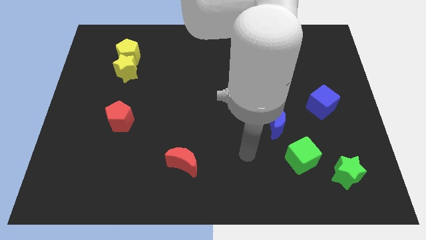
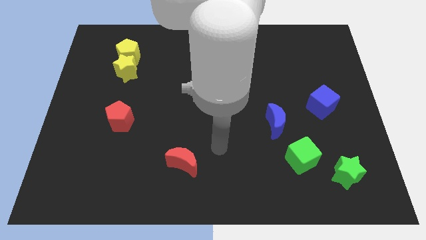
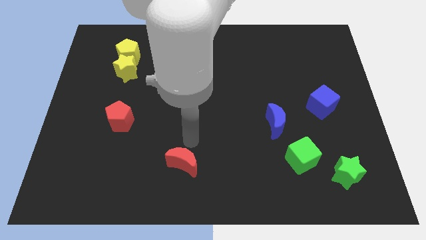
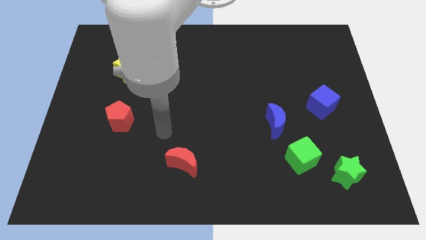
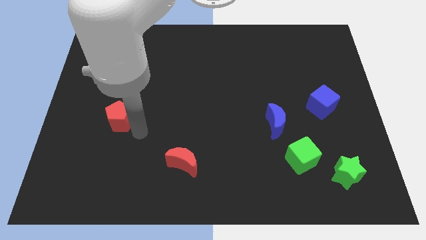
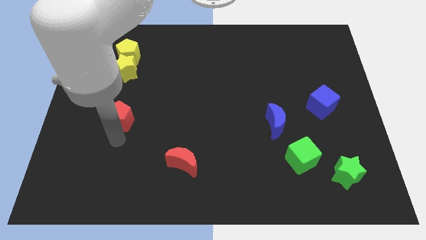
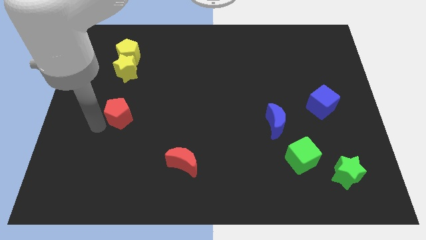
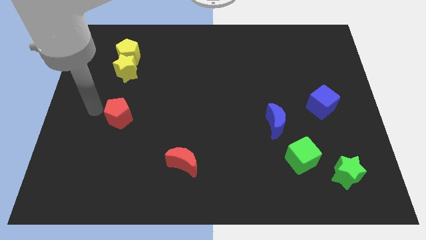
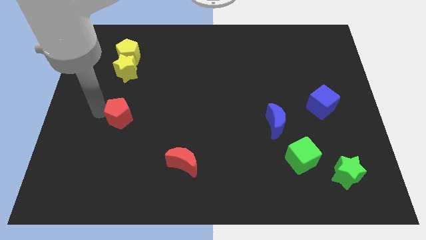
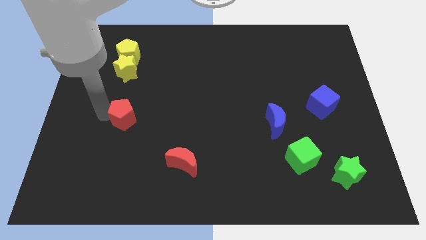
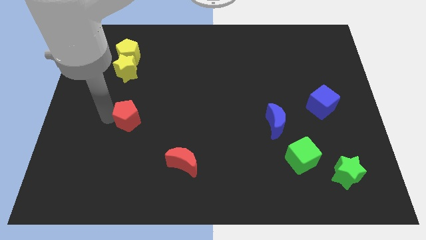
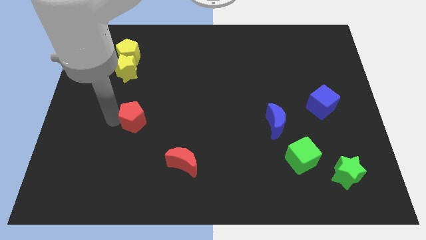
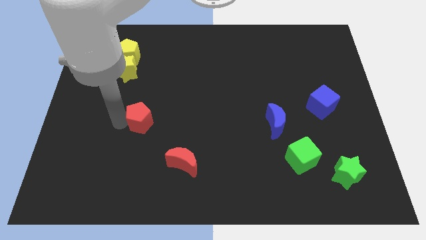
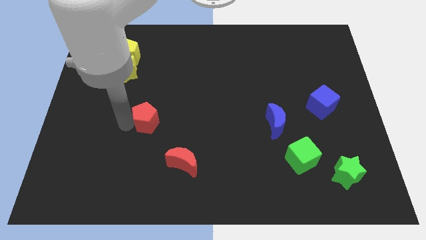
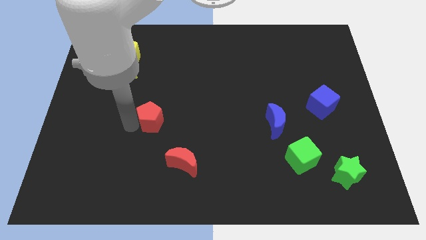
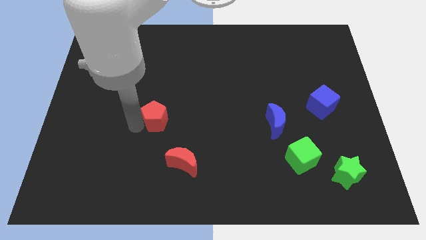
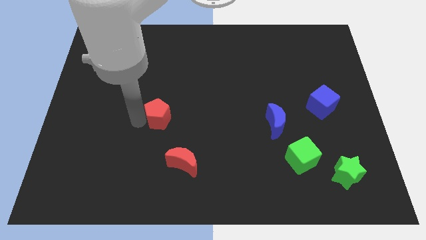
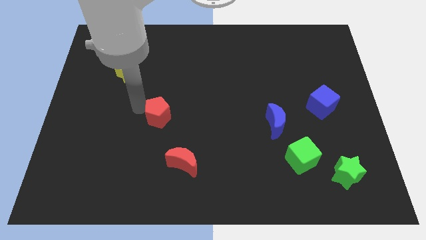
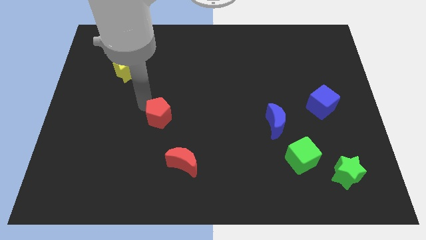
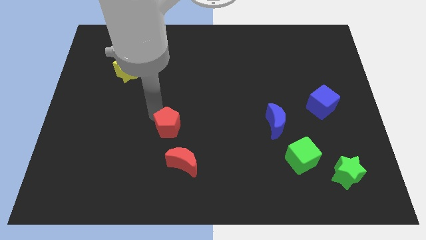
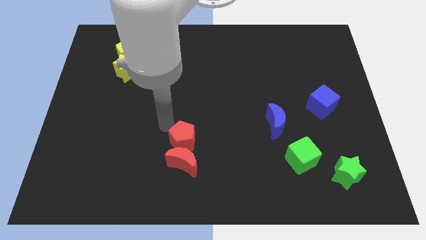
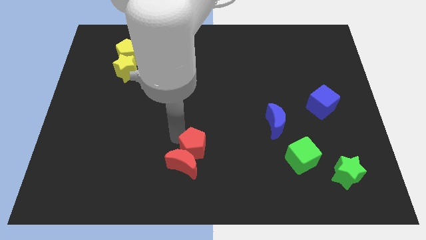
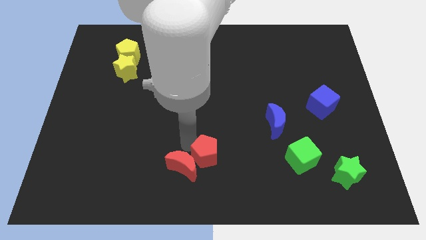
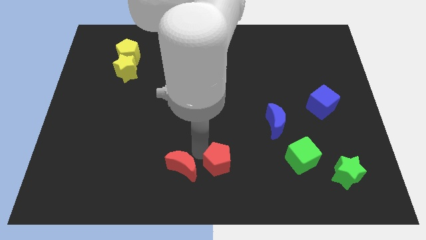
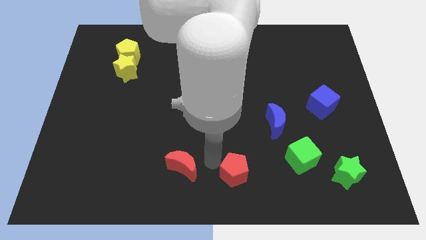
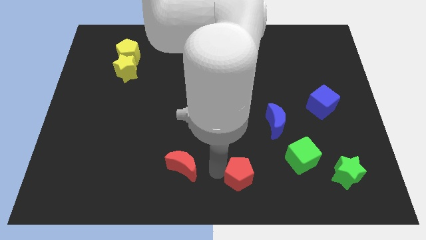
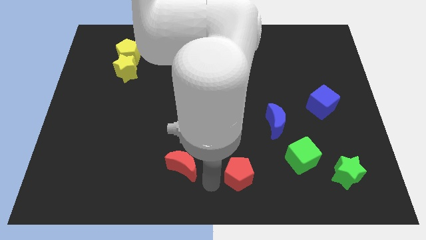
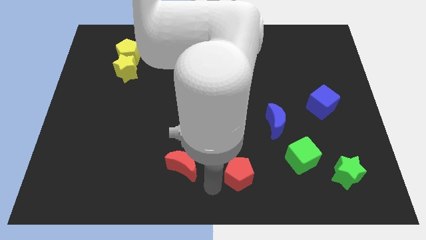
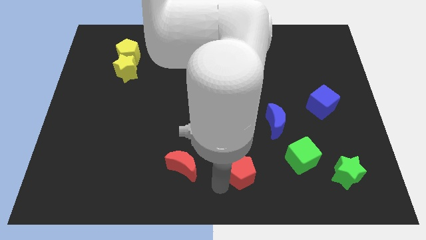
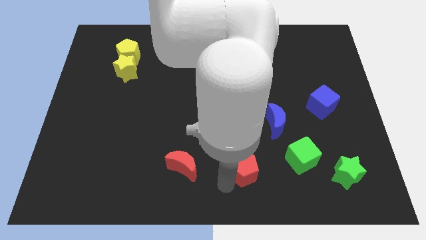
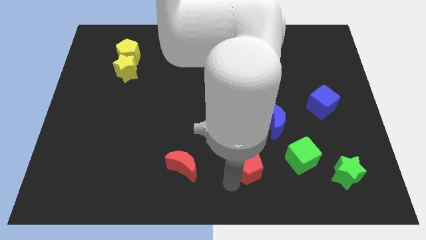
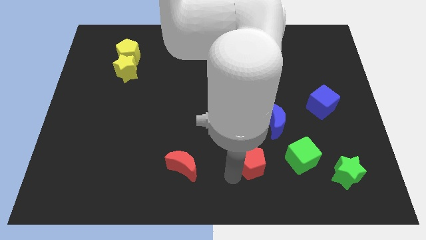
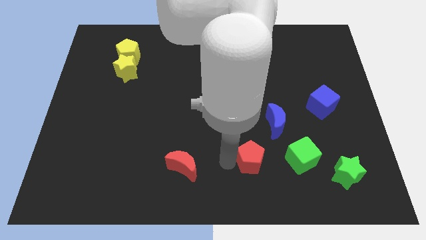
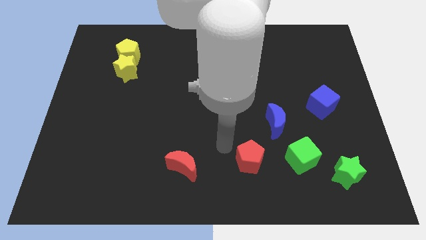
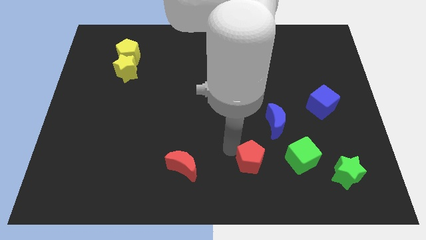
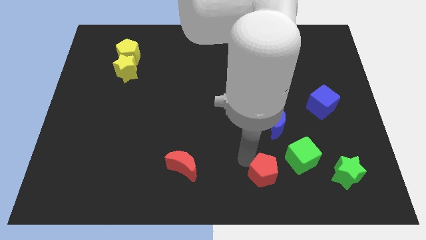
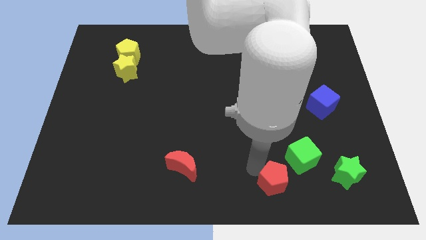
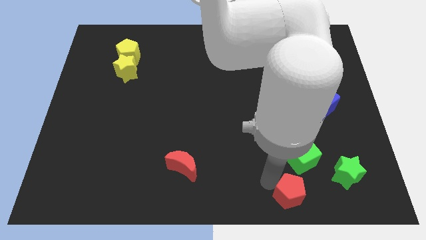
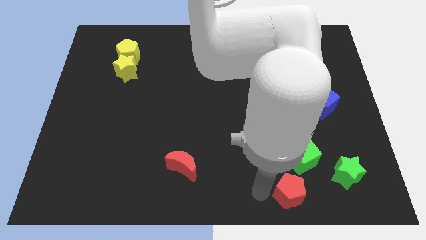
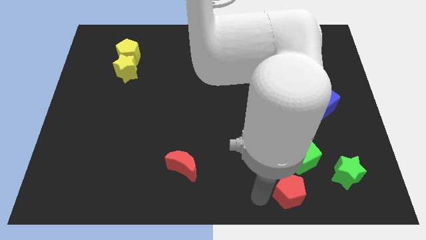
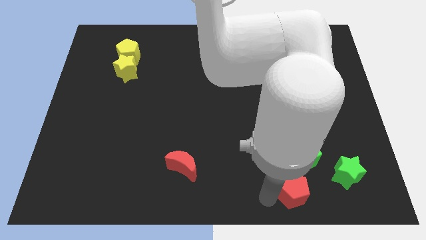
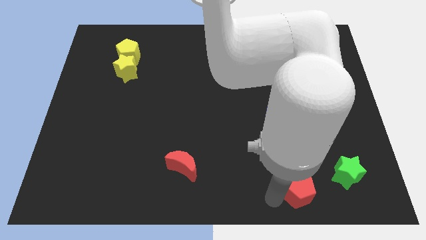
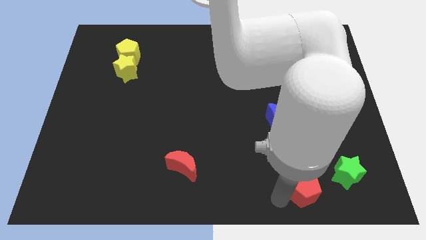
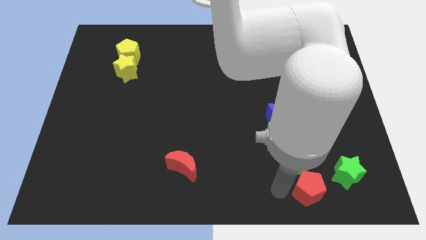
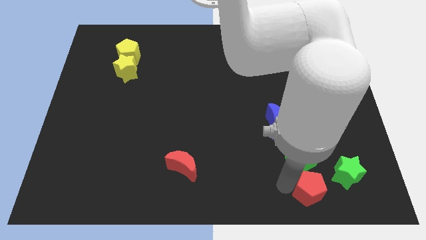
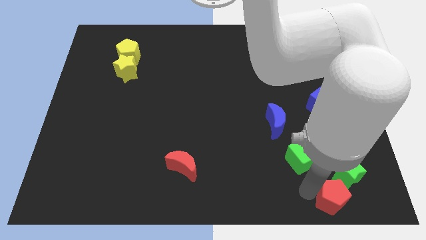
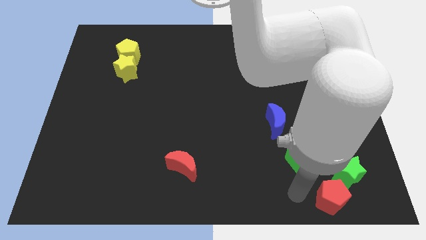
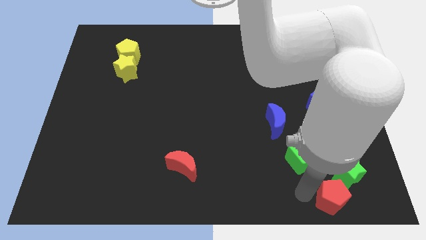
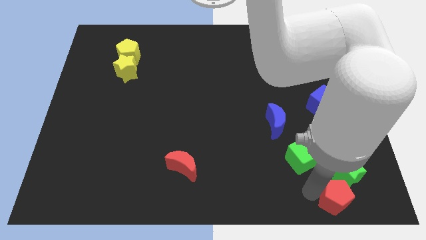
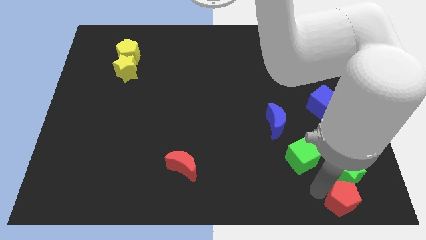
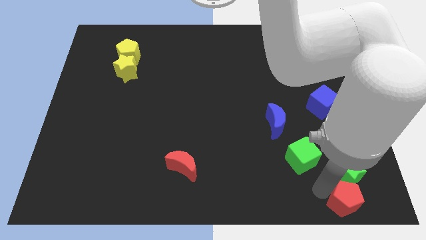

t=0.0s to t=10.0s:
move the red pentagon to the bottom right corner

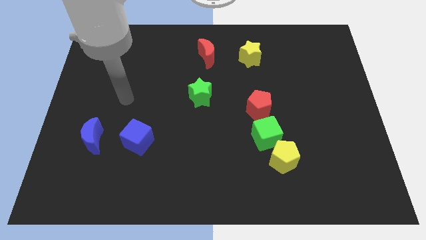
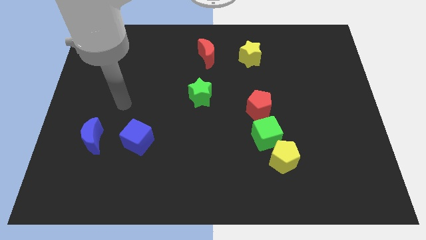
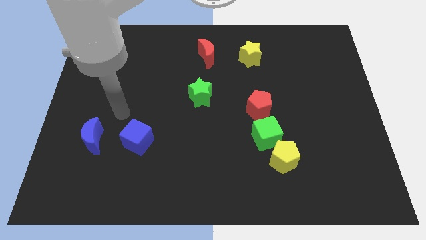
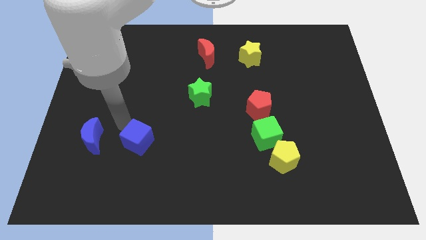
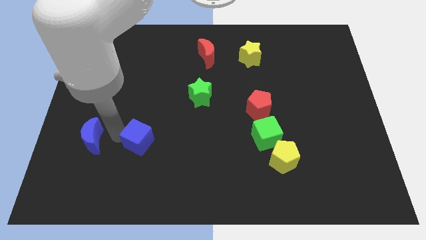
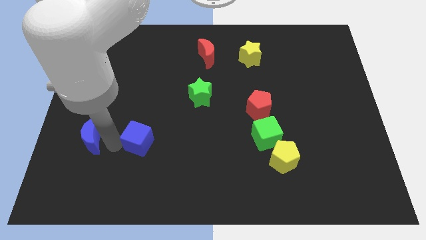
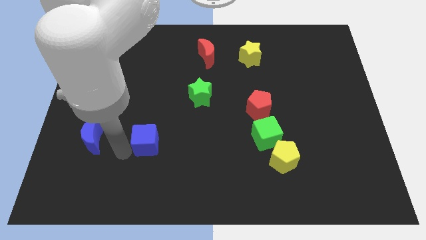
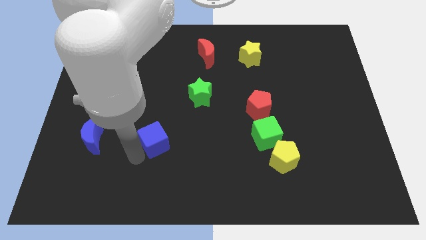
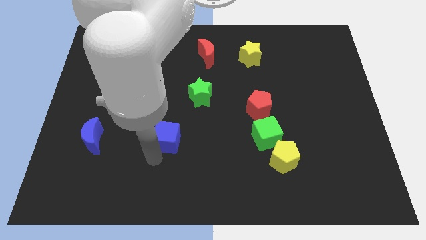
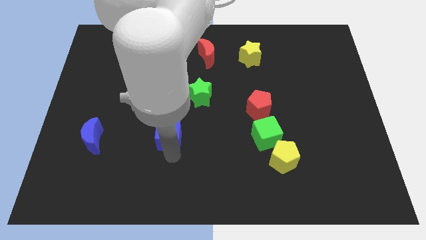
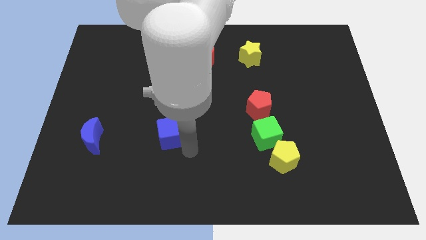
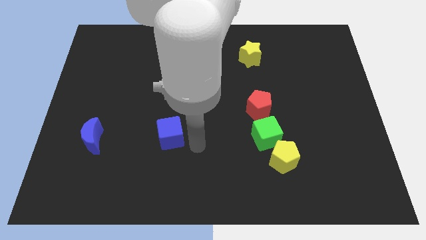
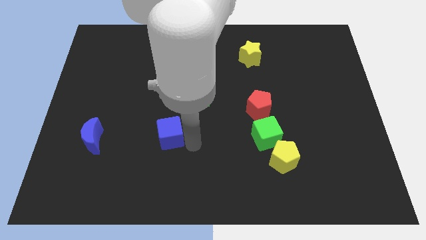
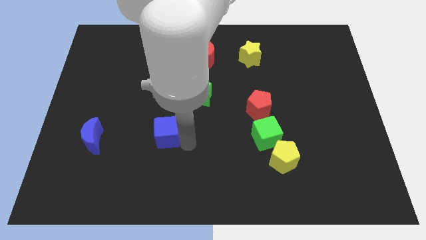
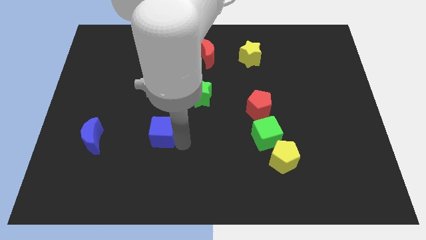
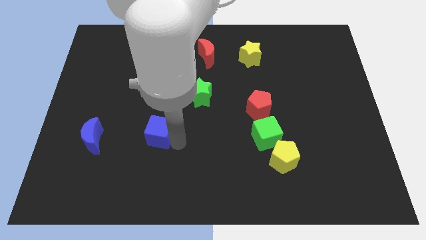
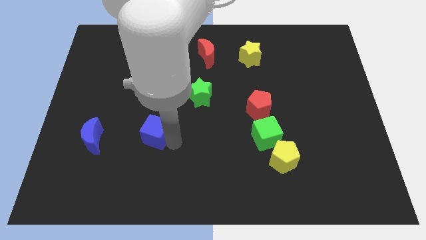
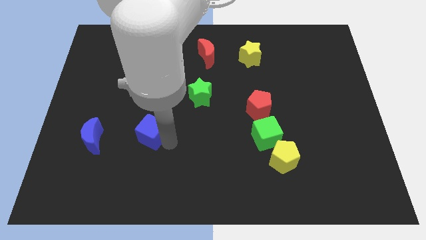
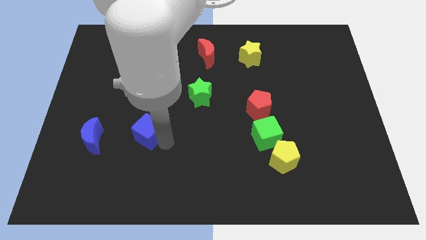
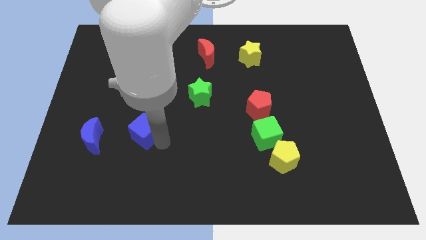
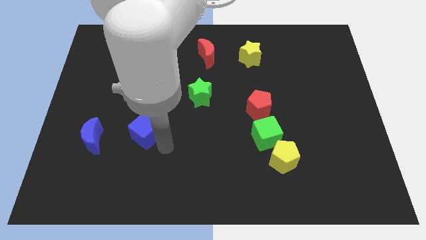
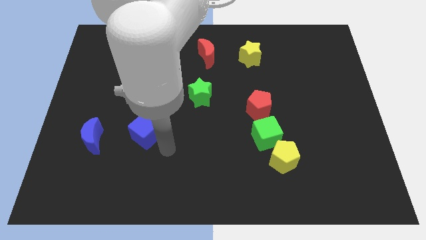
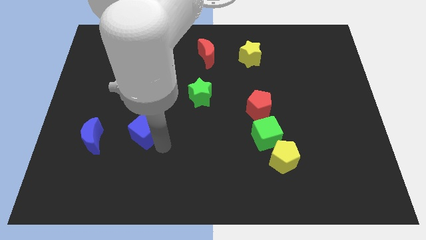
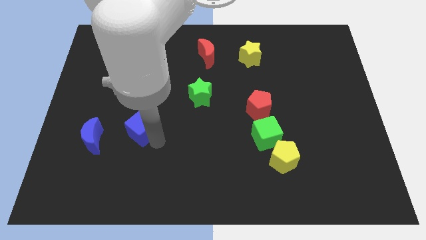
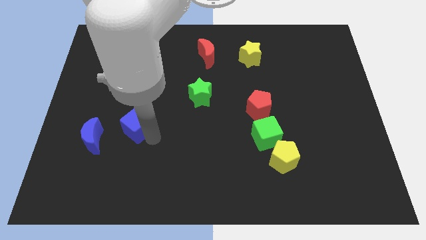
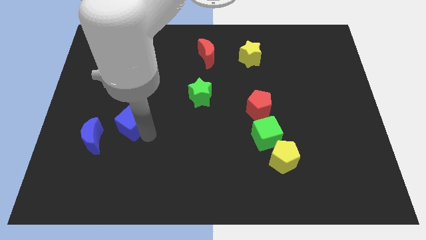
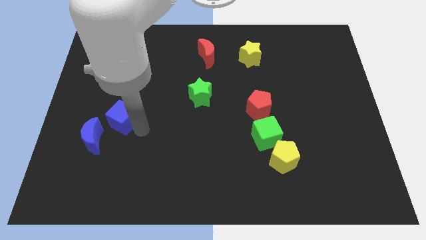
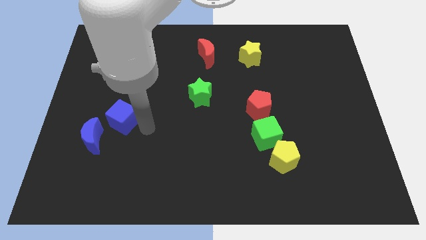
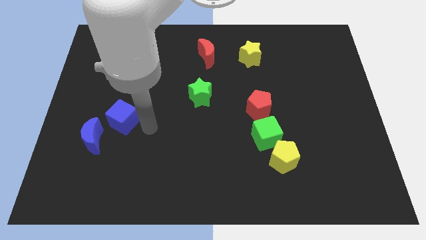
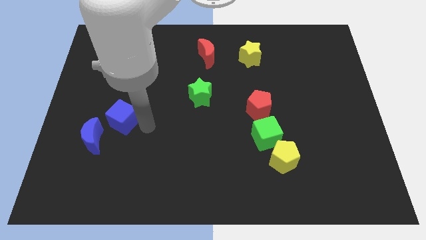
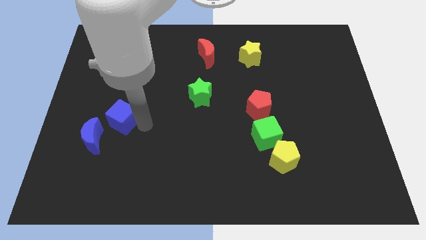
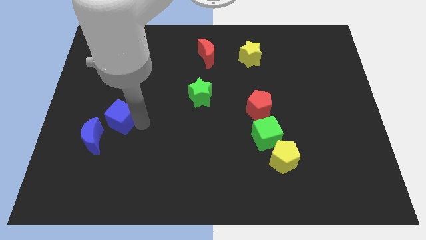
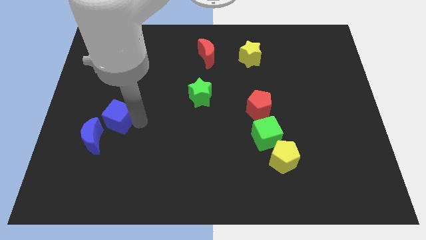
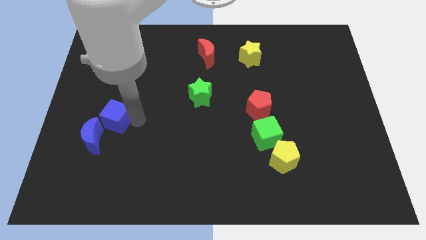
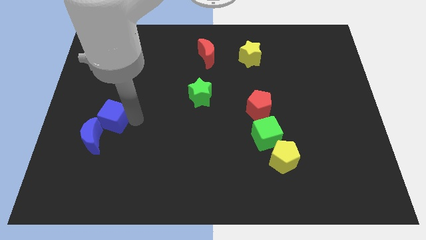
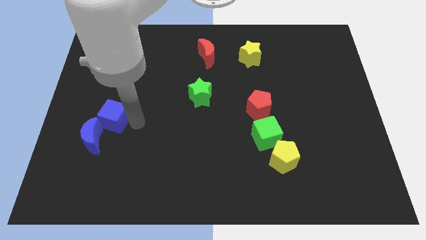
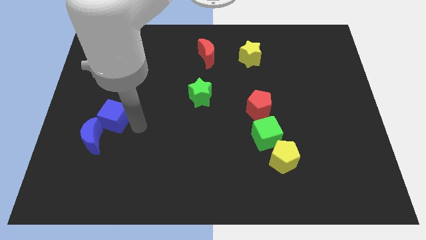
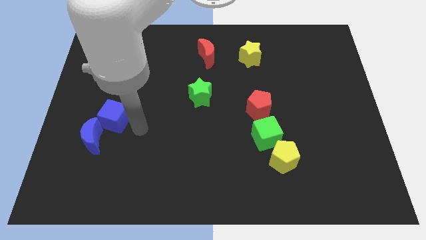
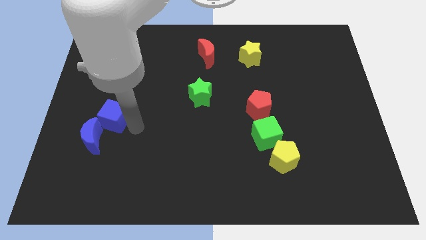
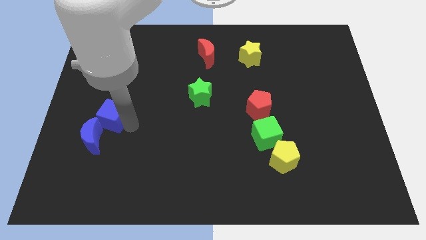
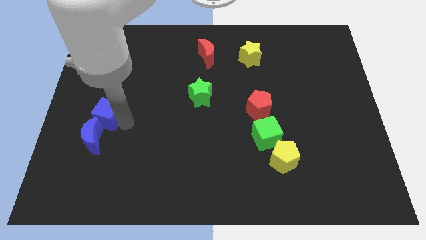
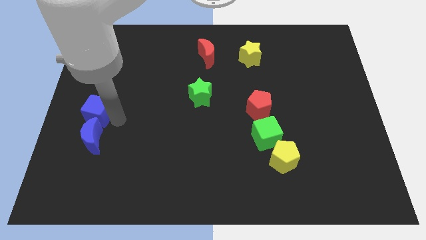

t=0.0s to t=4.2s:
put the blue cube to the center left
